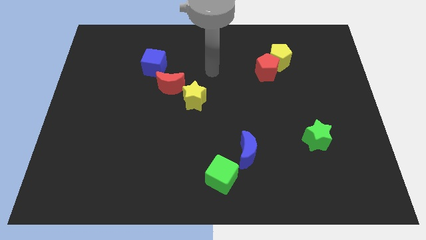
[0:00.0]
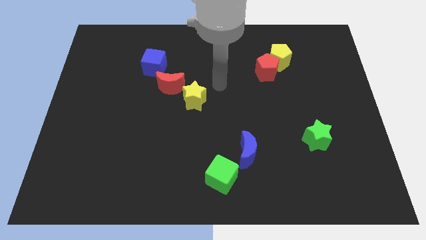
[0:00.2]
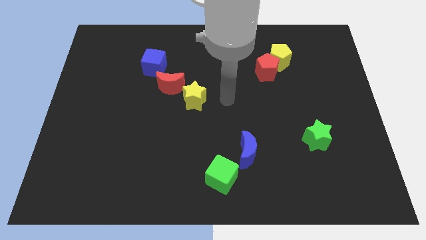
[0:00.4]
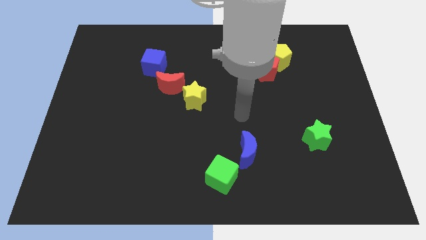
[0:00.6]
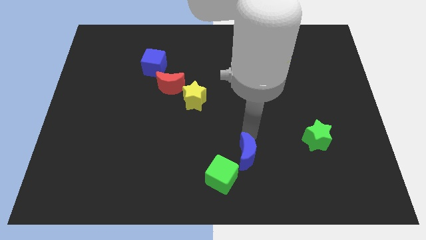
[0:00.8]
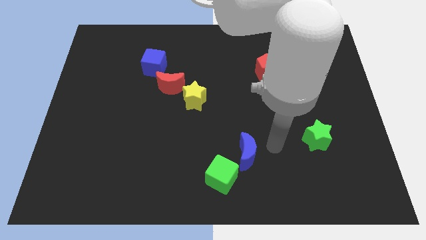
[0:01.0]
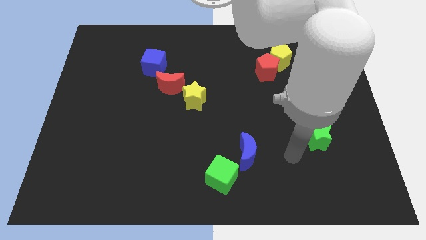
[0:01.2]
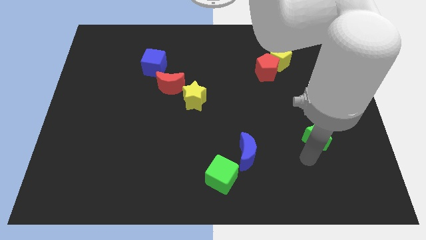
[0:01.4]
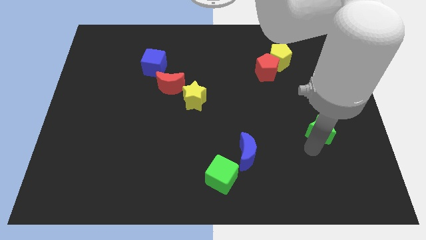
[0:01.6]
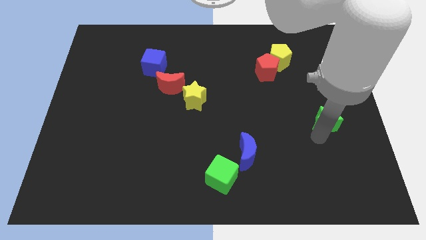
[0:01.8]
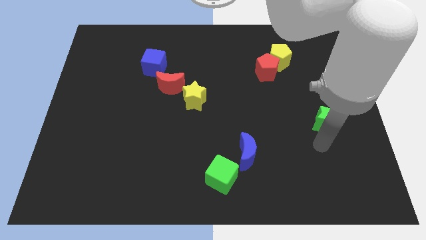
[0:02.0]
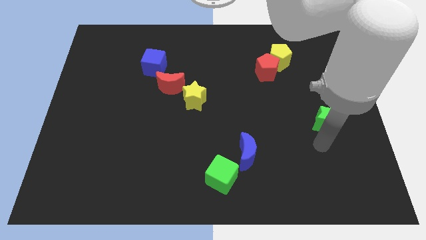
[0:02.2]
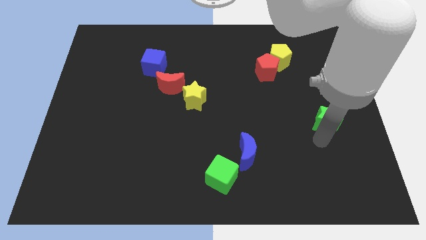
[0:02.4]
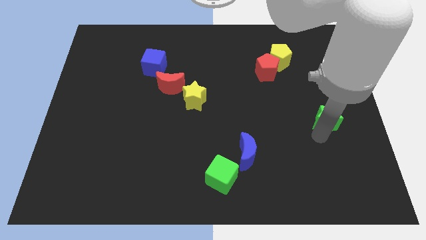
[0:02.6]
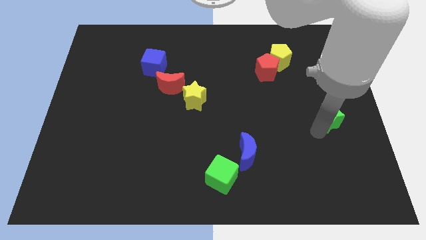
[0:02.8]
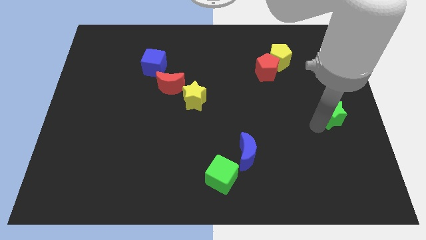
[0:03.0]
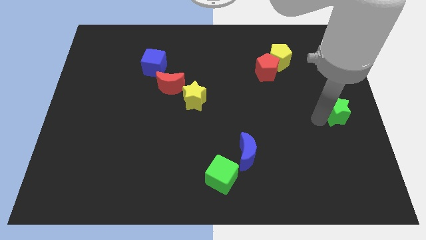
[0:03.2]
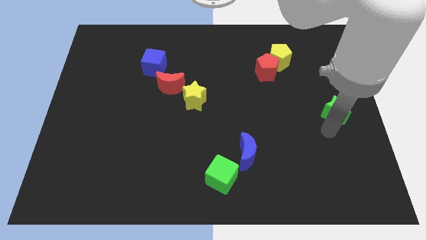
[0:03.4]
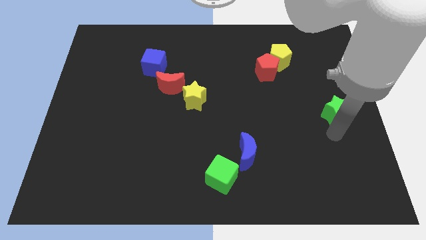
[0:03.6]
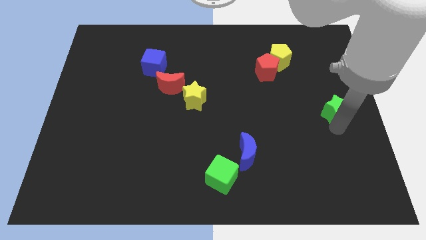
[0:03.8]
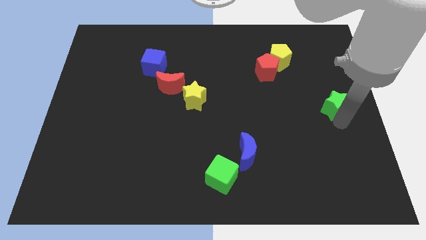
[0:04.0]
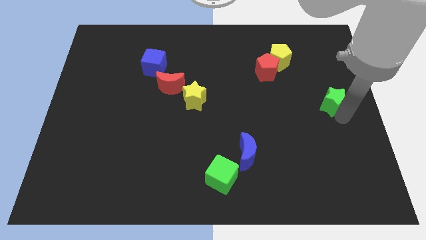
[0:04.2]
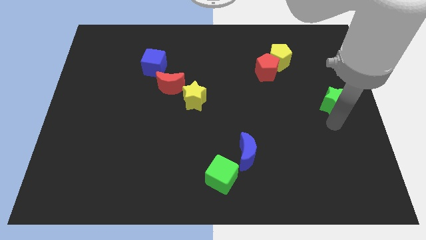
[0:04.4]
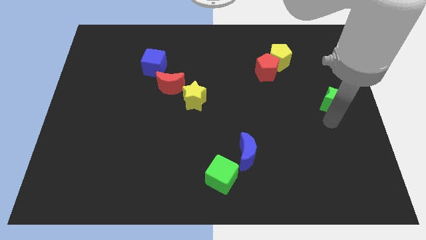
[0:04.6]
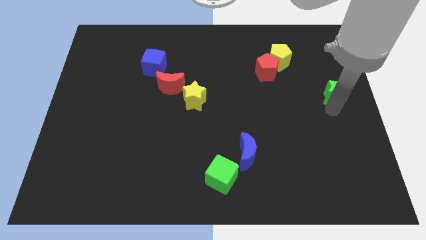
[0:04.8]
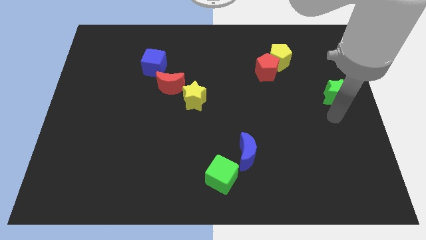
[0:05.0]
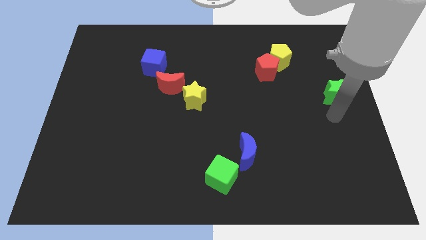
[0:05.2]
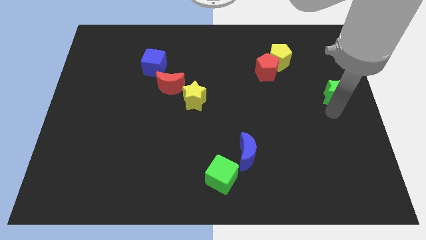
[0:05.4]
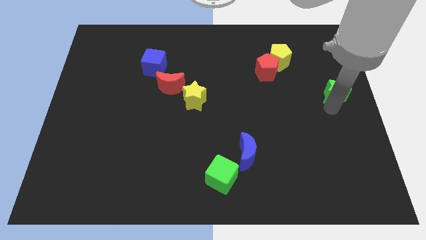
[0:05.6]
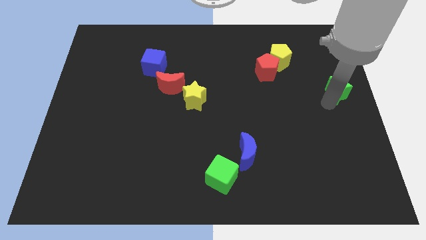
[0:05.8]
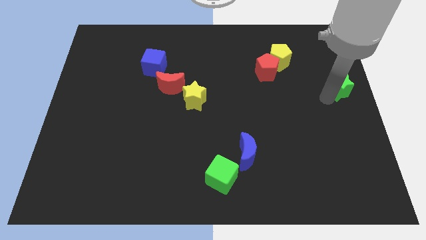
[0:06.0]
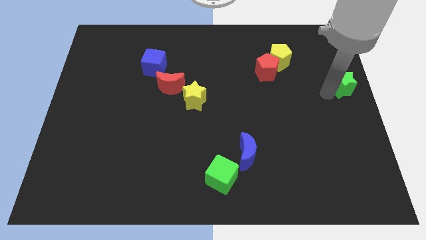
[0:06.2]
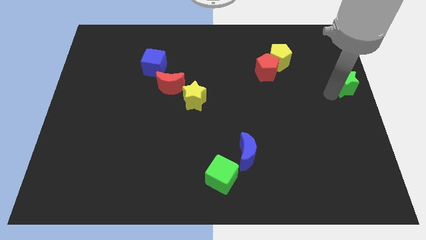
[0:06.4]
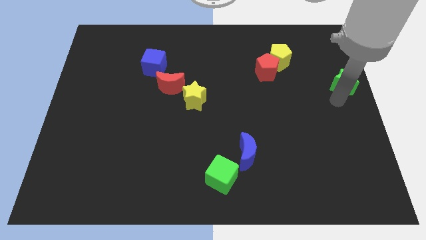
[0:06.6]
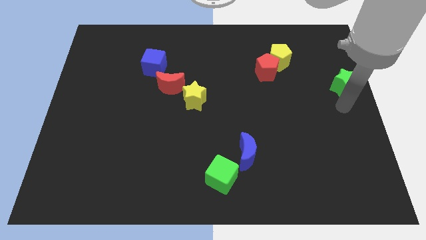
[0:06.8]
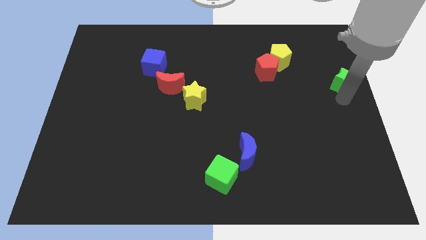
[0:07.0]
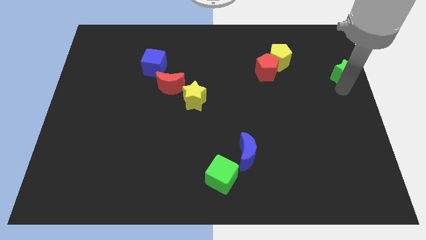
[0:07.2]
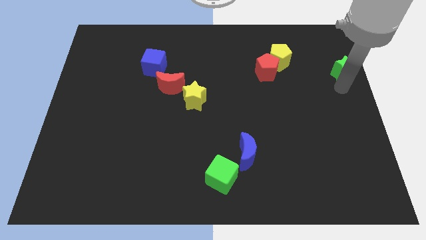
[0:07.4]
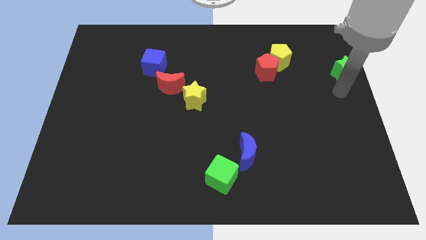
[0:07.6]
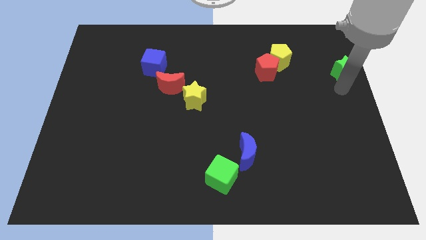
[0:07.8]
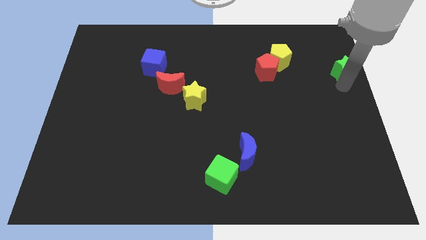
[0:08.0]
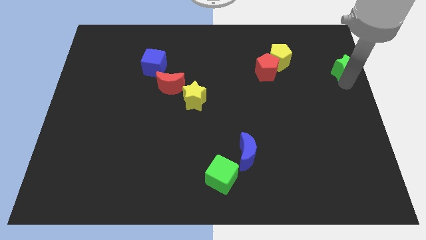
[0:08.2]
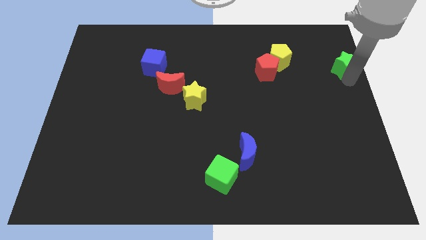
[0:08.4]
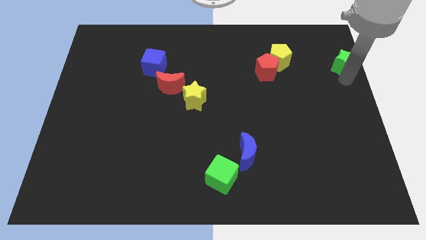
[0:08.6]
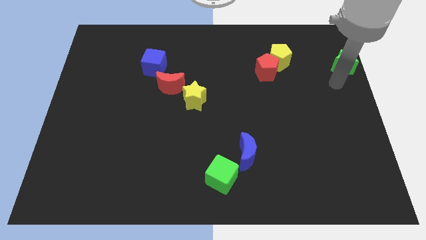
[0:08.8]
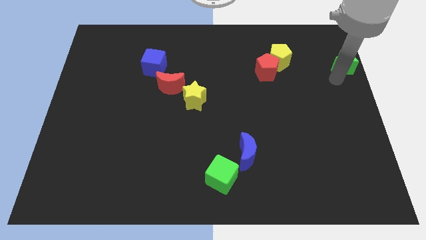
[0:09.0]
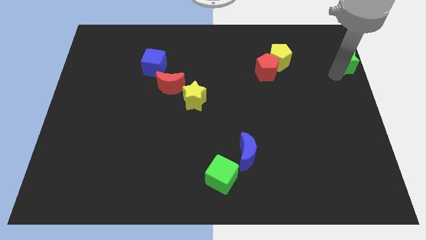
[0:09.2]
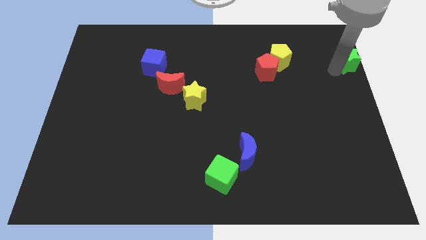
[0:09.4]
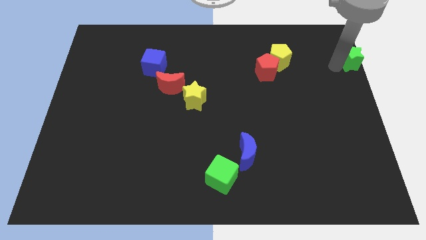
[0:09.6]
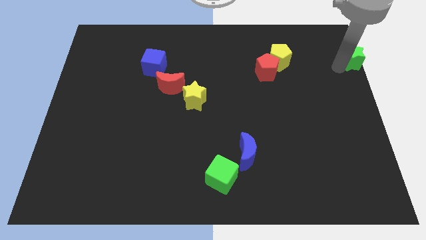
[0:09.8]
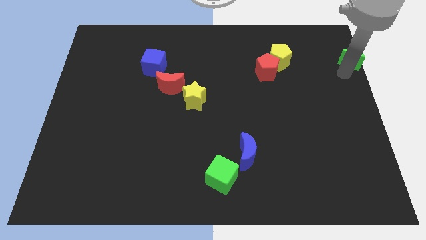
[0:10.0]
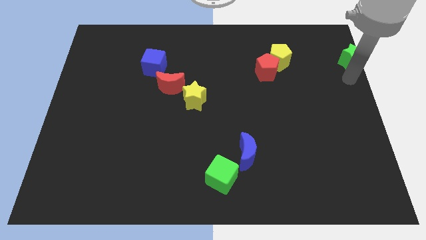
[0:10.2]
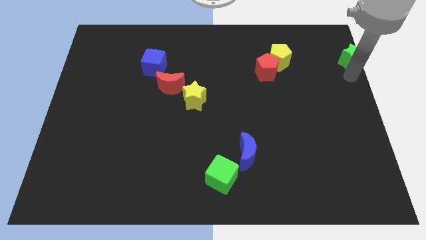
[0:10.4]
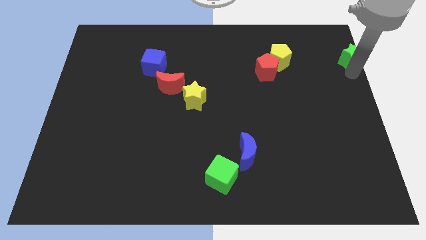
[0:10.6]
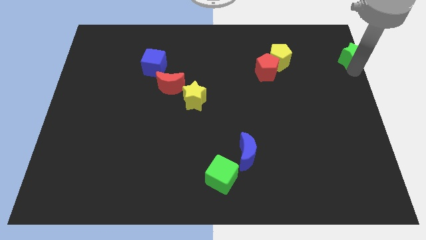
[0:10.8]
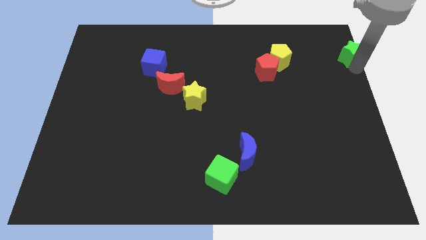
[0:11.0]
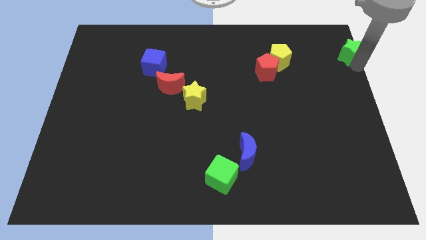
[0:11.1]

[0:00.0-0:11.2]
slide the green star to the top right
